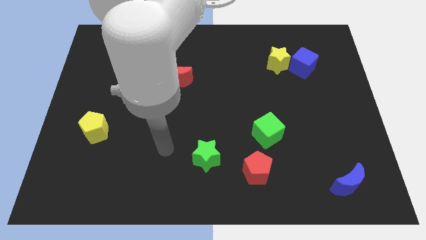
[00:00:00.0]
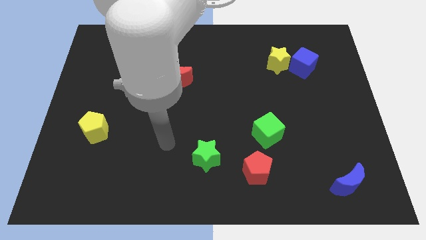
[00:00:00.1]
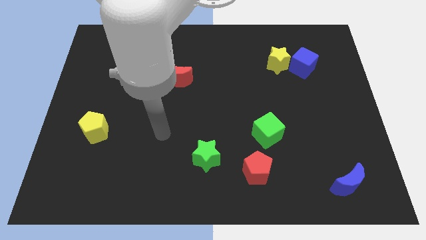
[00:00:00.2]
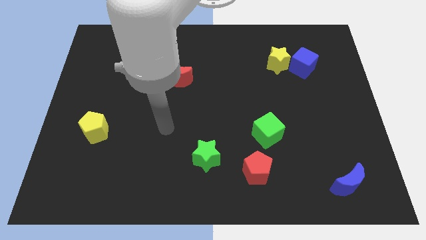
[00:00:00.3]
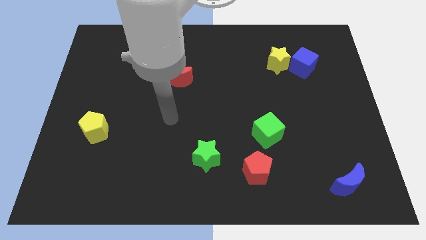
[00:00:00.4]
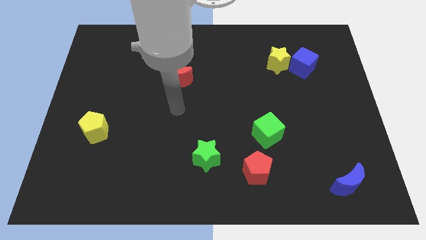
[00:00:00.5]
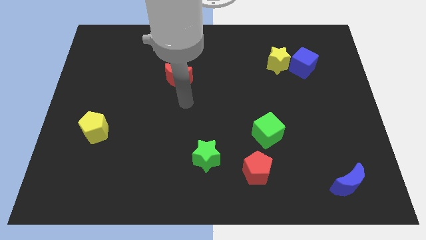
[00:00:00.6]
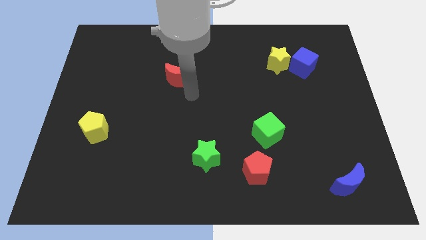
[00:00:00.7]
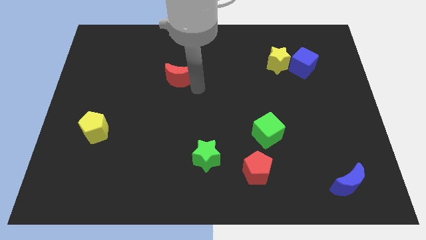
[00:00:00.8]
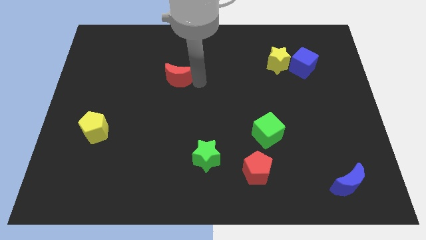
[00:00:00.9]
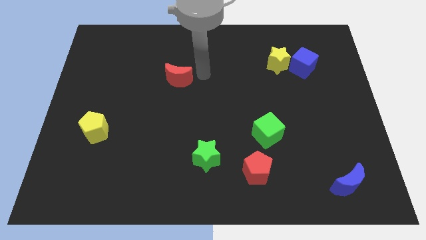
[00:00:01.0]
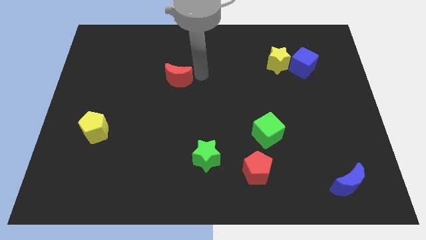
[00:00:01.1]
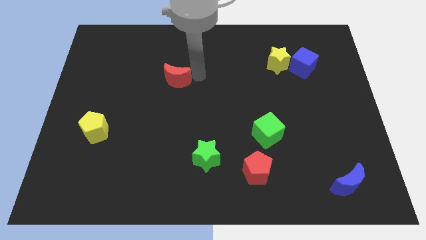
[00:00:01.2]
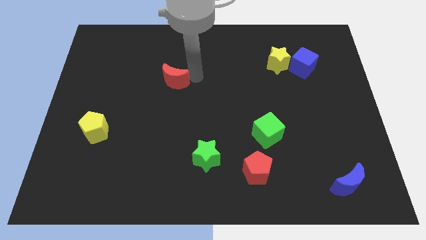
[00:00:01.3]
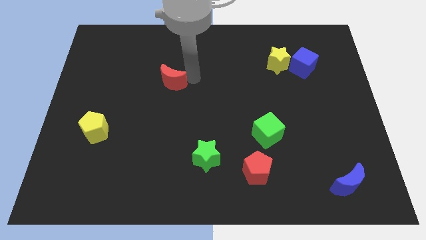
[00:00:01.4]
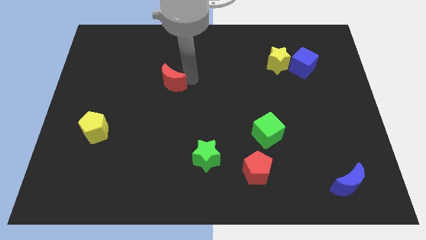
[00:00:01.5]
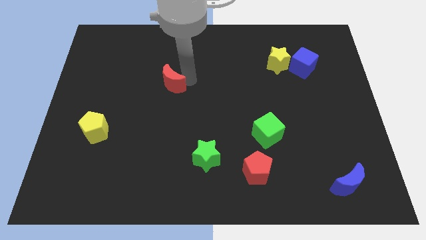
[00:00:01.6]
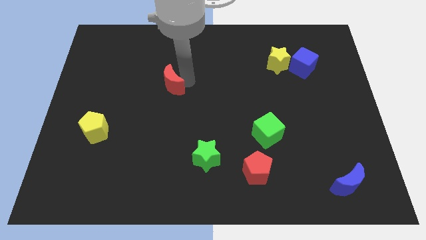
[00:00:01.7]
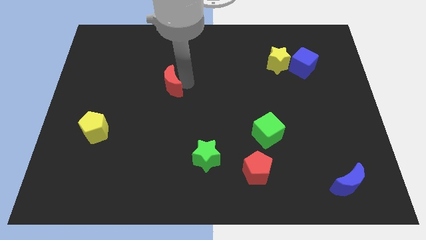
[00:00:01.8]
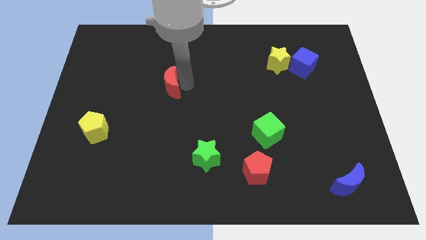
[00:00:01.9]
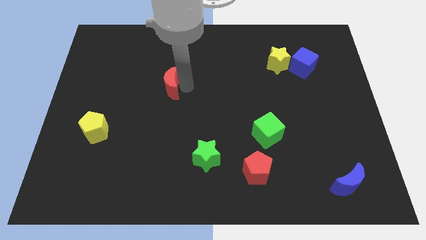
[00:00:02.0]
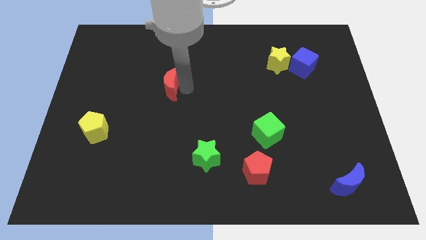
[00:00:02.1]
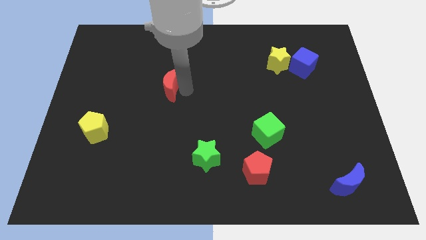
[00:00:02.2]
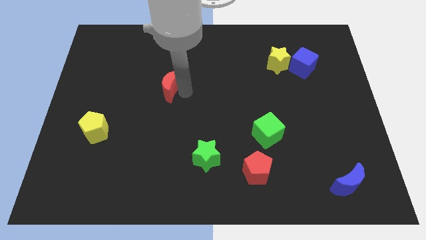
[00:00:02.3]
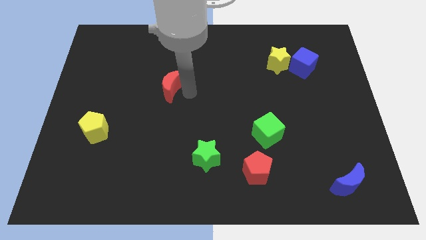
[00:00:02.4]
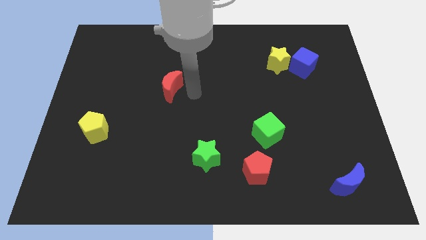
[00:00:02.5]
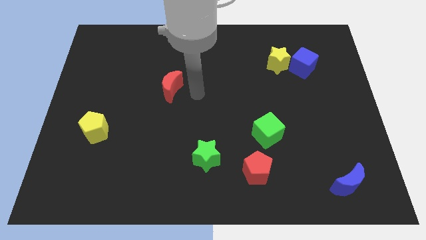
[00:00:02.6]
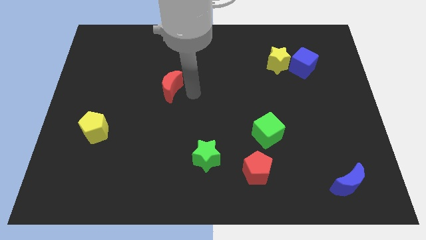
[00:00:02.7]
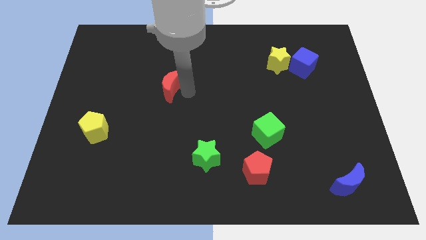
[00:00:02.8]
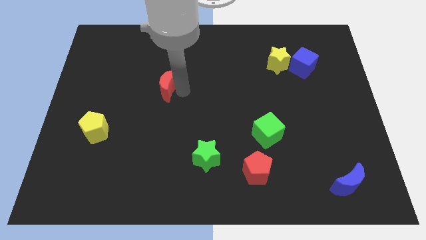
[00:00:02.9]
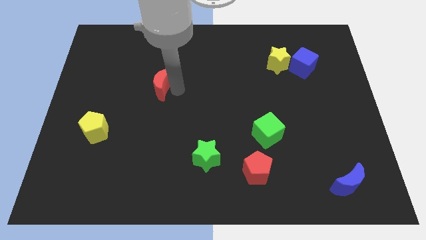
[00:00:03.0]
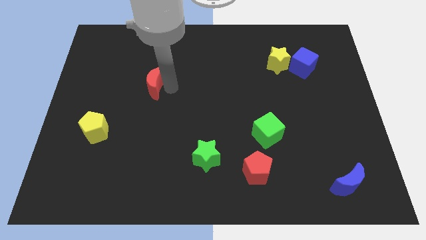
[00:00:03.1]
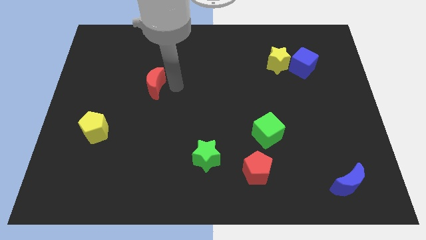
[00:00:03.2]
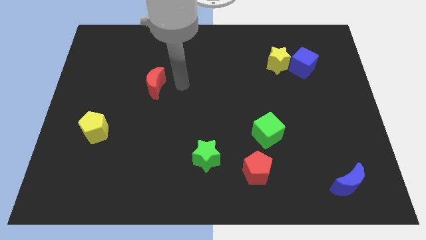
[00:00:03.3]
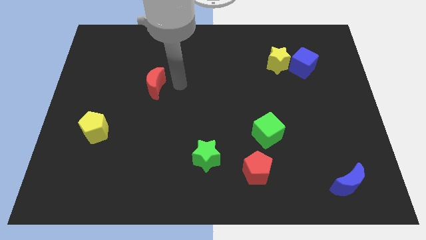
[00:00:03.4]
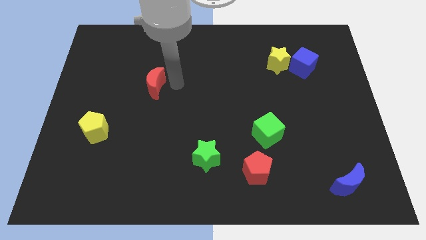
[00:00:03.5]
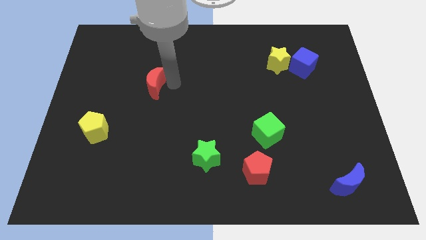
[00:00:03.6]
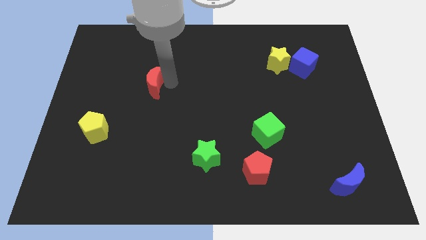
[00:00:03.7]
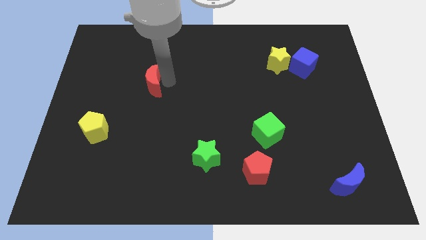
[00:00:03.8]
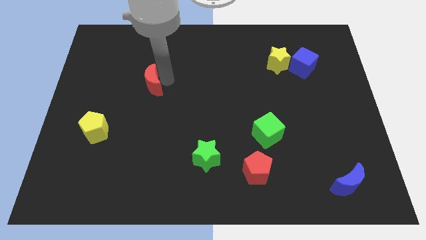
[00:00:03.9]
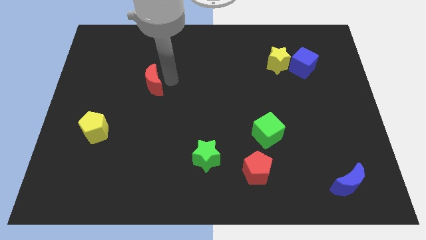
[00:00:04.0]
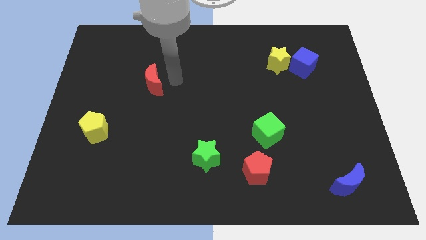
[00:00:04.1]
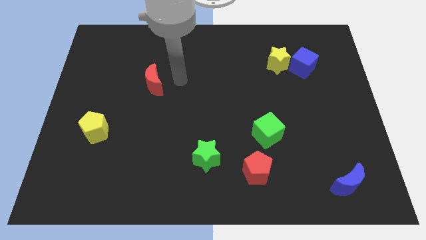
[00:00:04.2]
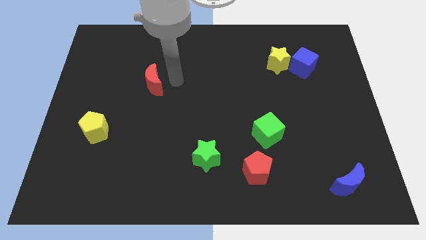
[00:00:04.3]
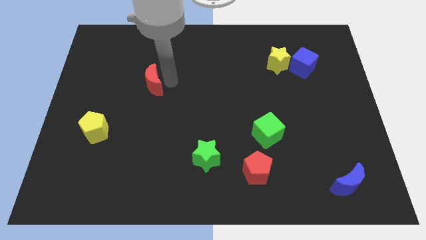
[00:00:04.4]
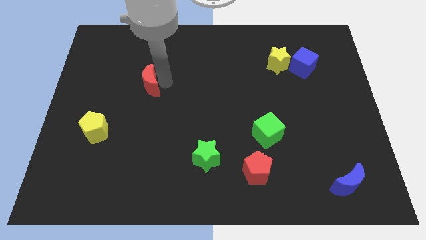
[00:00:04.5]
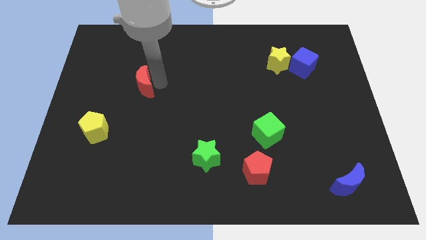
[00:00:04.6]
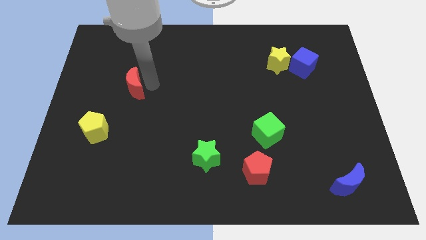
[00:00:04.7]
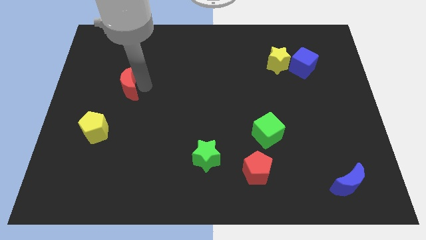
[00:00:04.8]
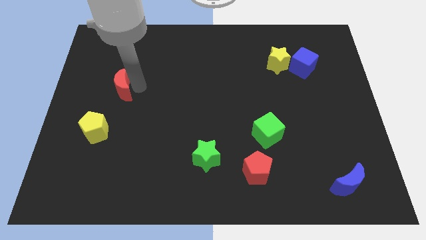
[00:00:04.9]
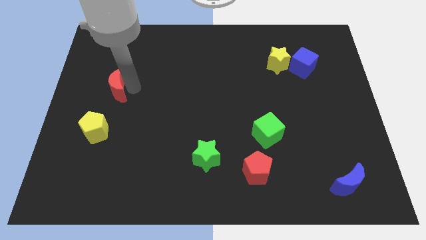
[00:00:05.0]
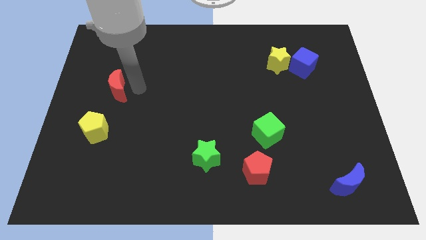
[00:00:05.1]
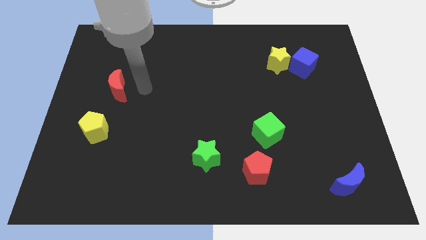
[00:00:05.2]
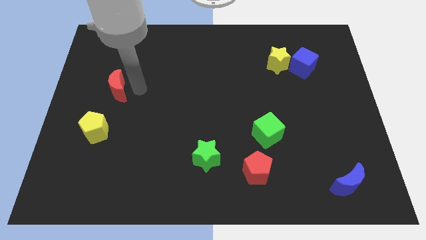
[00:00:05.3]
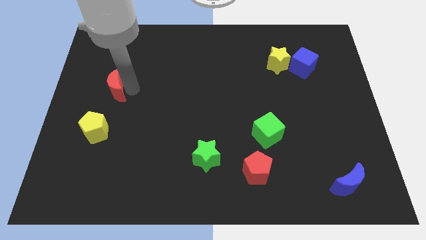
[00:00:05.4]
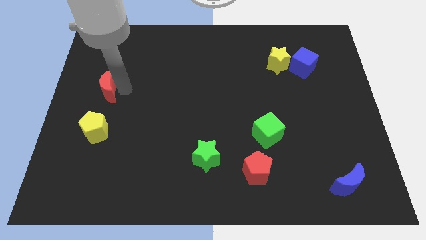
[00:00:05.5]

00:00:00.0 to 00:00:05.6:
move the red moon to the left side of the board

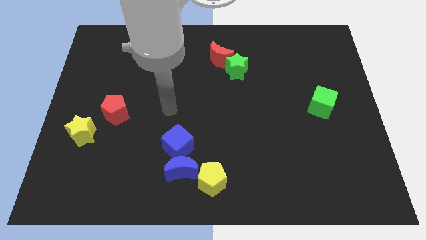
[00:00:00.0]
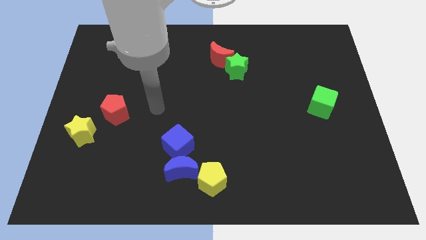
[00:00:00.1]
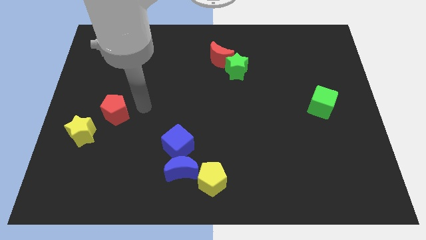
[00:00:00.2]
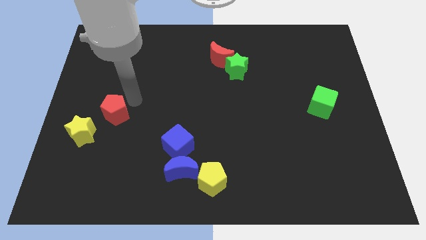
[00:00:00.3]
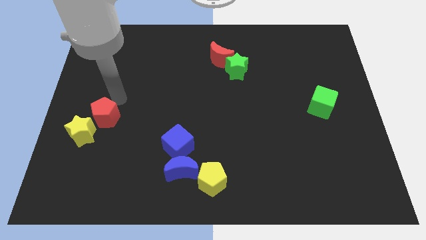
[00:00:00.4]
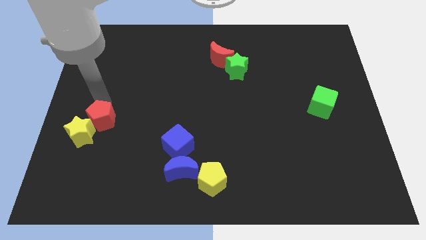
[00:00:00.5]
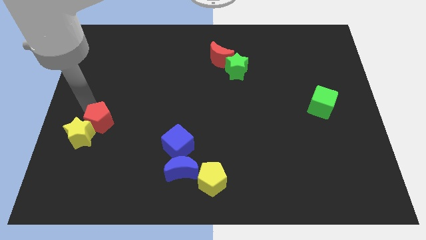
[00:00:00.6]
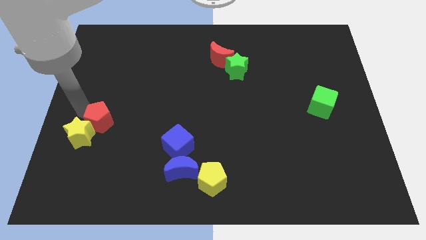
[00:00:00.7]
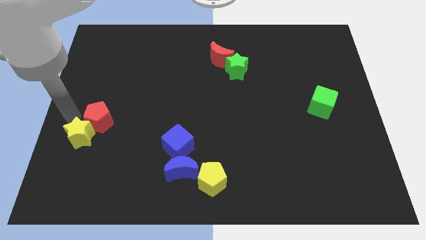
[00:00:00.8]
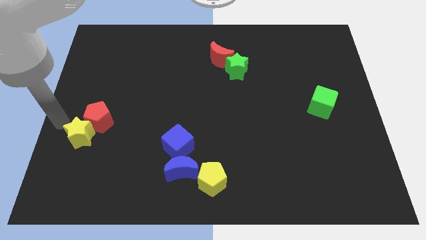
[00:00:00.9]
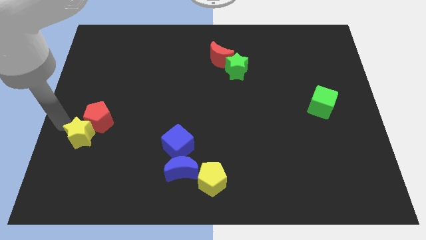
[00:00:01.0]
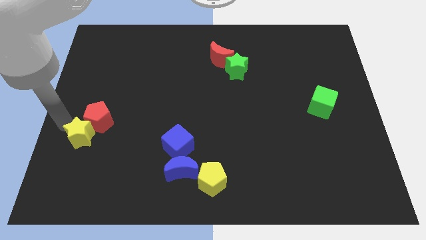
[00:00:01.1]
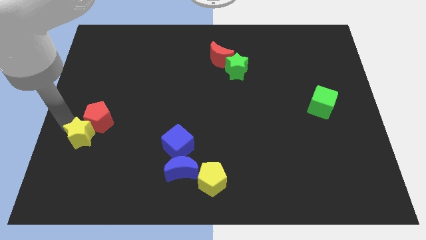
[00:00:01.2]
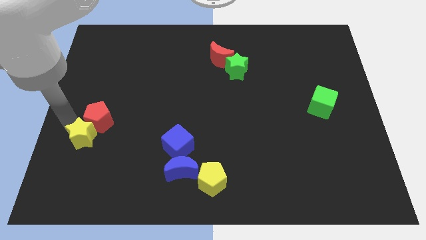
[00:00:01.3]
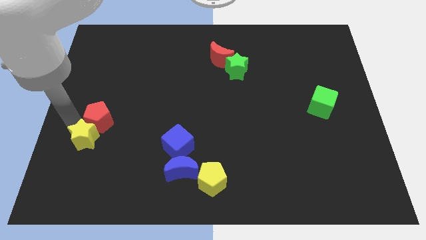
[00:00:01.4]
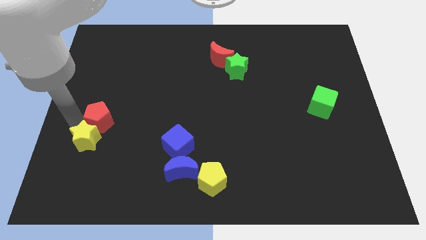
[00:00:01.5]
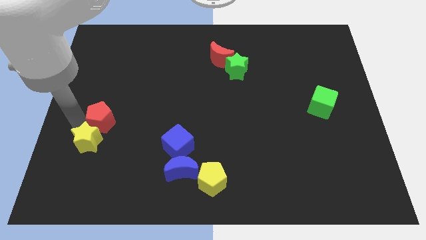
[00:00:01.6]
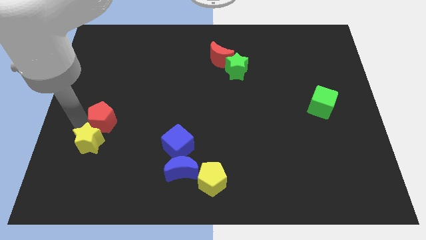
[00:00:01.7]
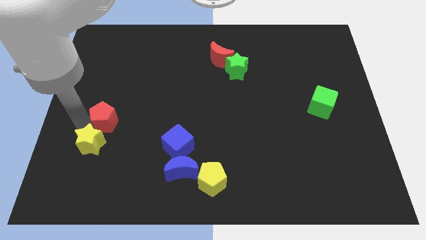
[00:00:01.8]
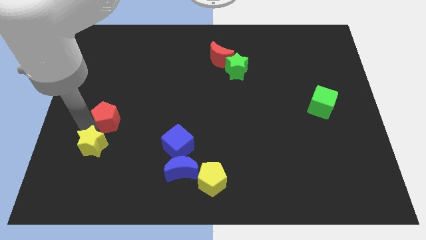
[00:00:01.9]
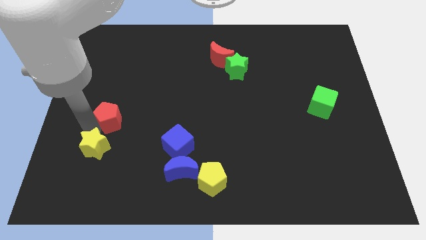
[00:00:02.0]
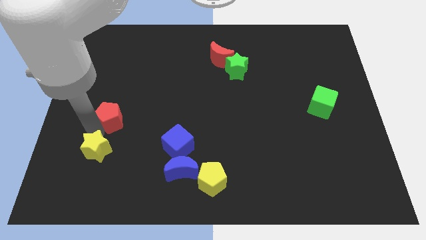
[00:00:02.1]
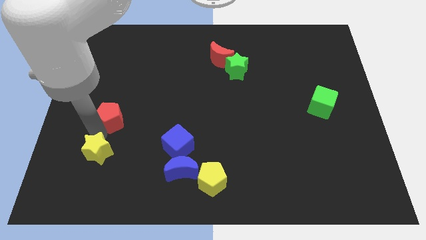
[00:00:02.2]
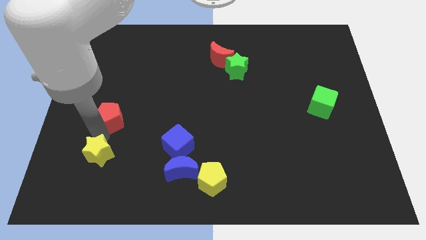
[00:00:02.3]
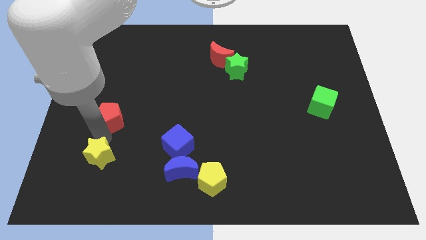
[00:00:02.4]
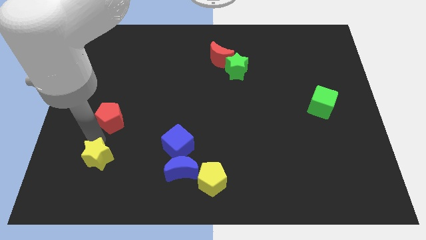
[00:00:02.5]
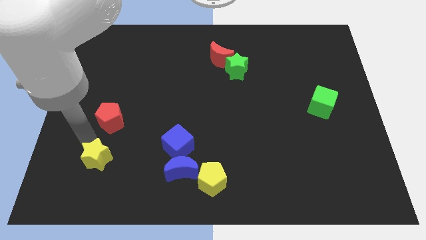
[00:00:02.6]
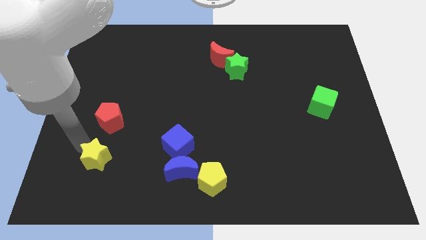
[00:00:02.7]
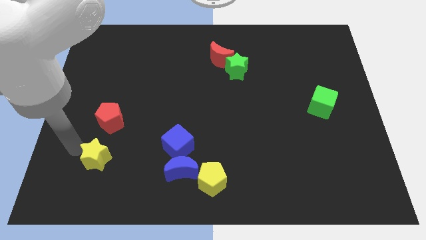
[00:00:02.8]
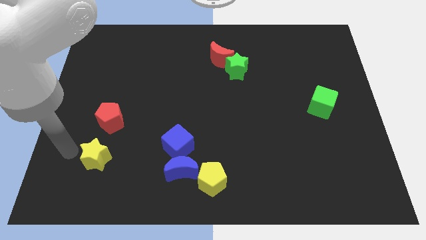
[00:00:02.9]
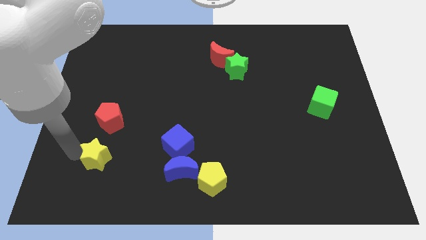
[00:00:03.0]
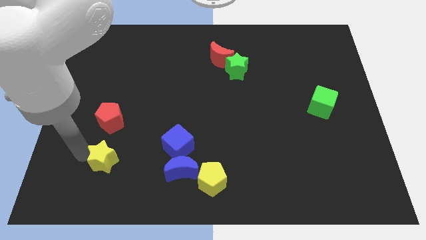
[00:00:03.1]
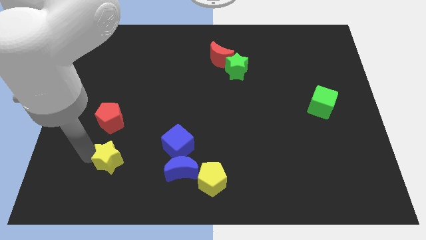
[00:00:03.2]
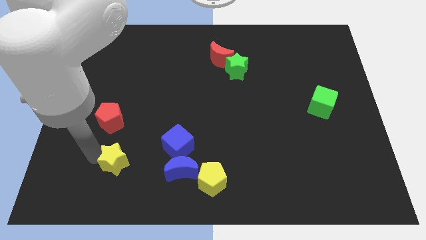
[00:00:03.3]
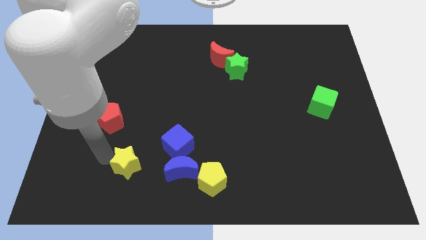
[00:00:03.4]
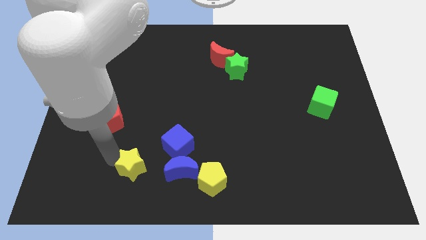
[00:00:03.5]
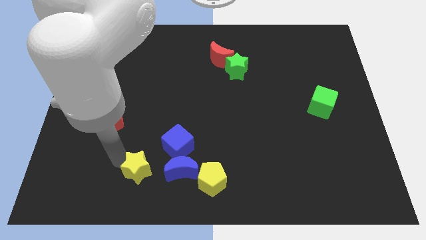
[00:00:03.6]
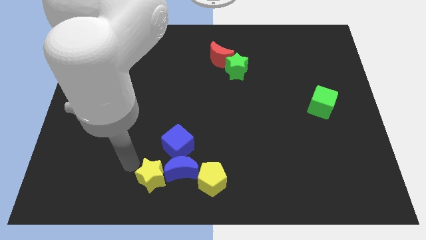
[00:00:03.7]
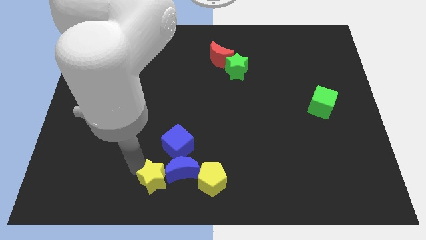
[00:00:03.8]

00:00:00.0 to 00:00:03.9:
put the yellow star to the bottom side
